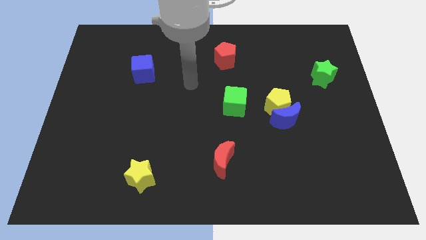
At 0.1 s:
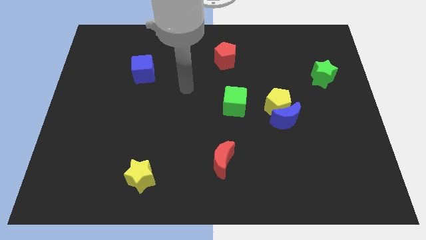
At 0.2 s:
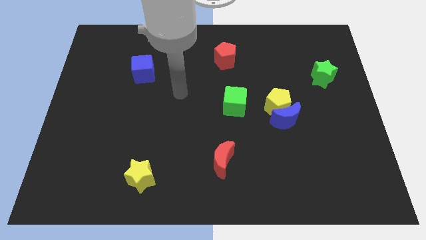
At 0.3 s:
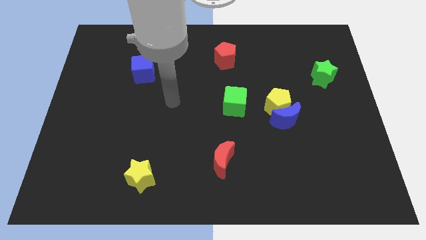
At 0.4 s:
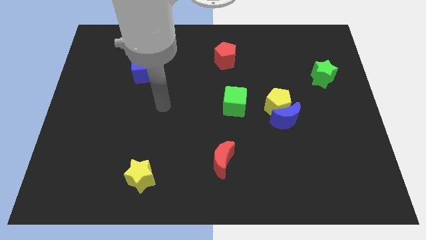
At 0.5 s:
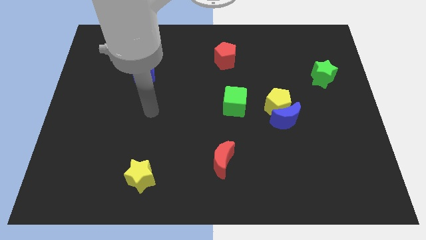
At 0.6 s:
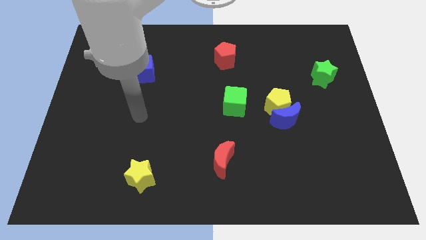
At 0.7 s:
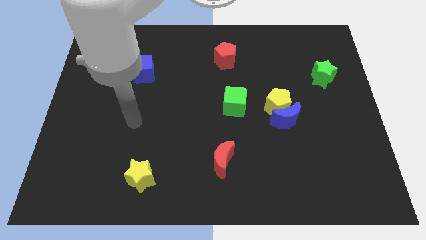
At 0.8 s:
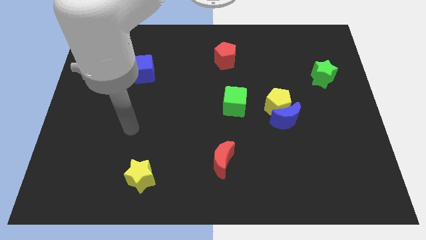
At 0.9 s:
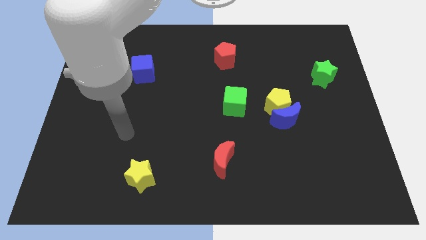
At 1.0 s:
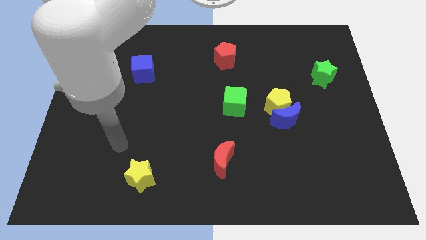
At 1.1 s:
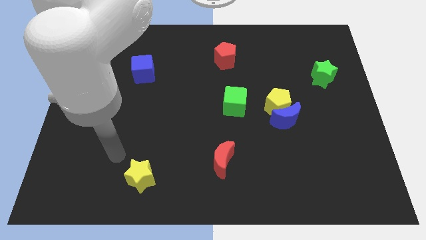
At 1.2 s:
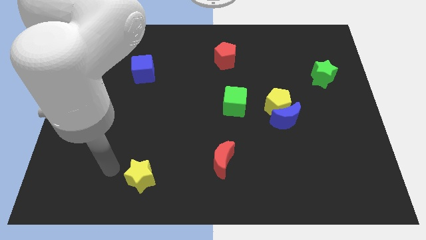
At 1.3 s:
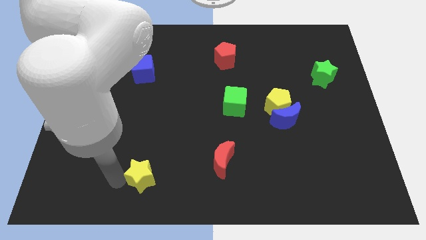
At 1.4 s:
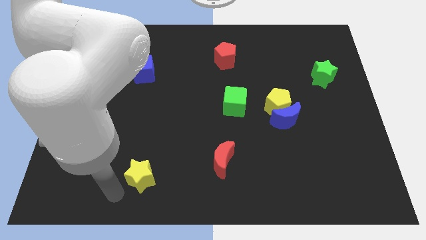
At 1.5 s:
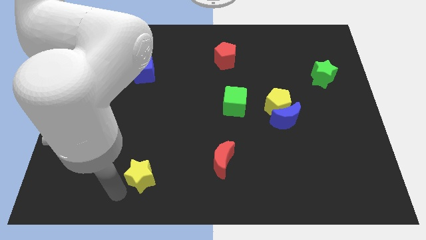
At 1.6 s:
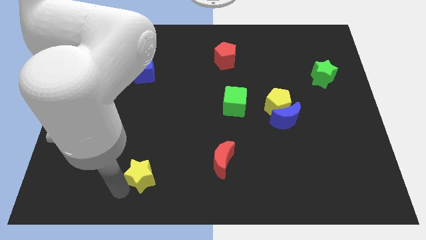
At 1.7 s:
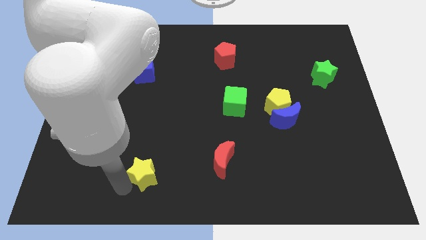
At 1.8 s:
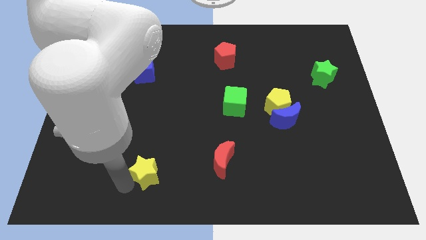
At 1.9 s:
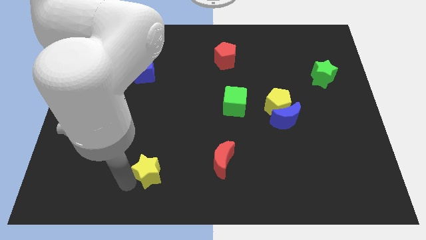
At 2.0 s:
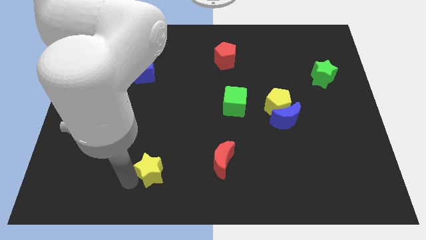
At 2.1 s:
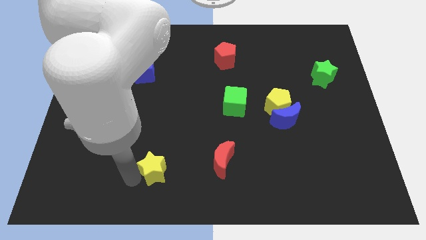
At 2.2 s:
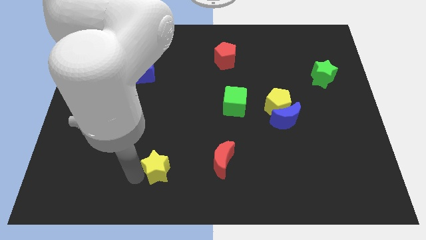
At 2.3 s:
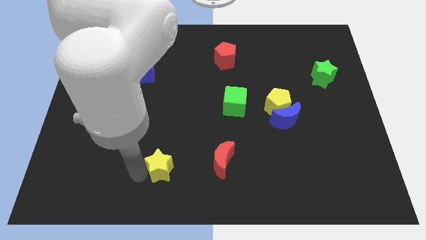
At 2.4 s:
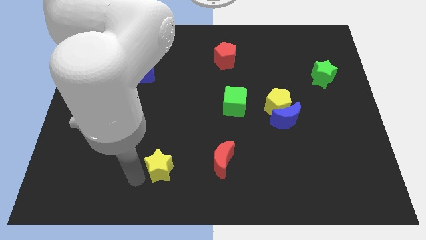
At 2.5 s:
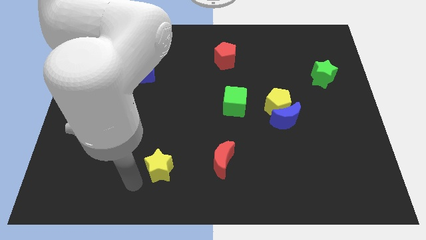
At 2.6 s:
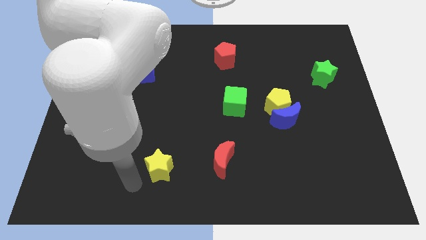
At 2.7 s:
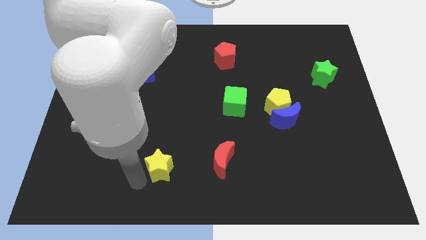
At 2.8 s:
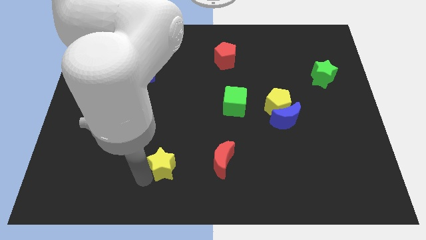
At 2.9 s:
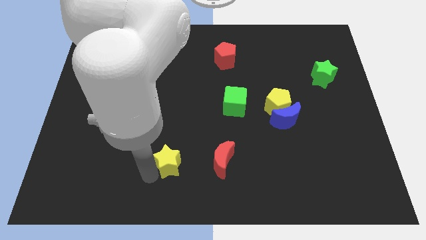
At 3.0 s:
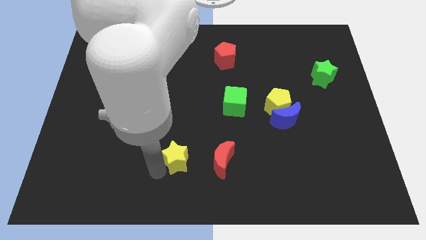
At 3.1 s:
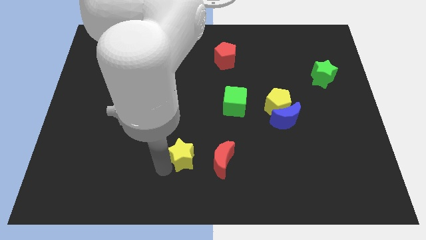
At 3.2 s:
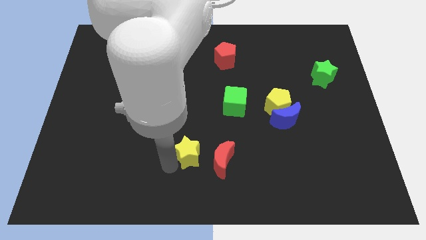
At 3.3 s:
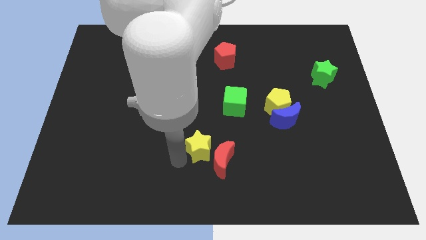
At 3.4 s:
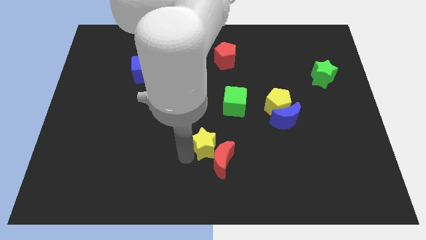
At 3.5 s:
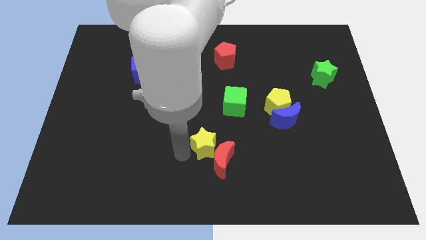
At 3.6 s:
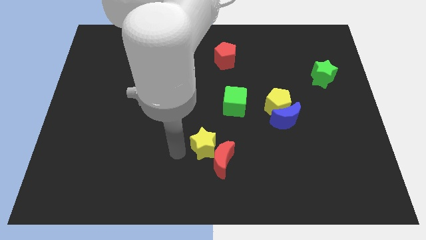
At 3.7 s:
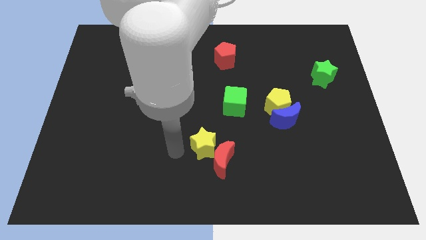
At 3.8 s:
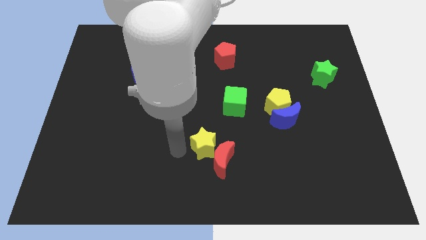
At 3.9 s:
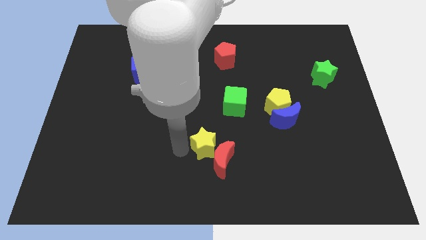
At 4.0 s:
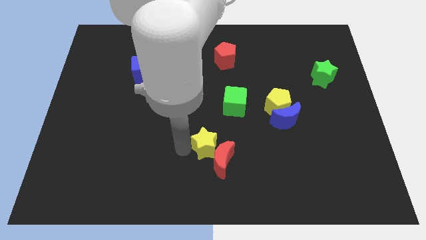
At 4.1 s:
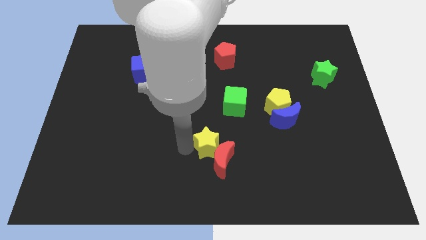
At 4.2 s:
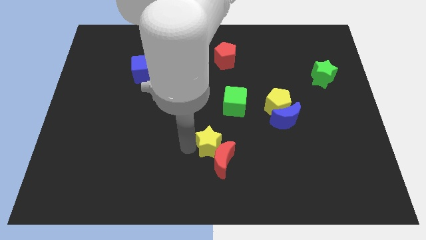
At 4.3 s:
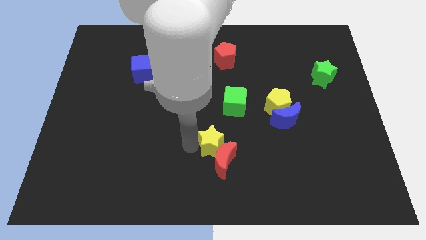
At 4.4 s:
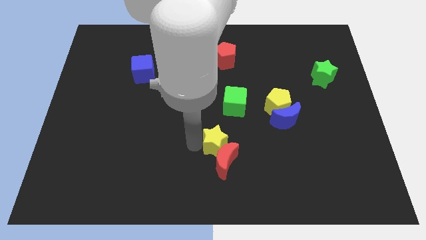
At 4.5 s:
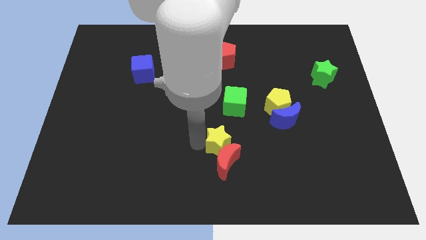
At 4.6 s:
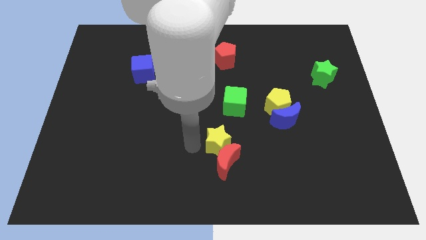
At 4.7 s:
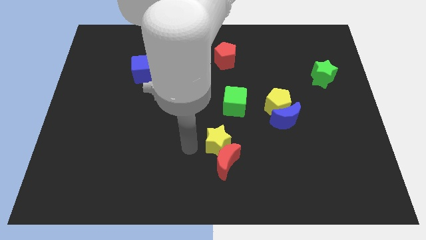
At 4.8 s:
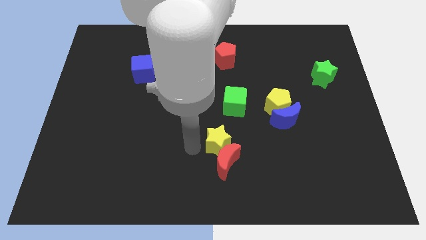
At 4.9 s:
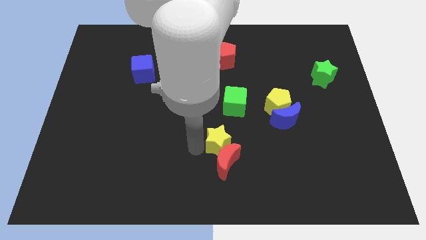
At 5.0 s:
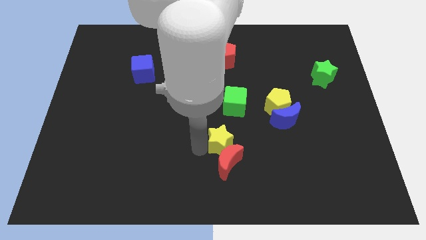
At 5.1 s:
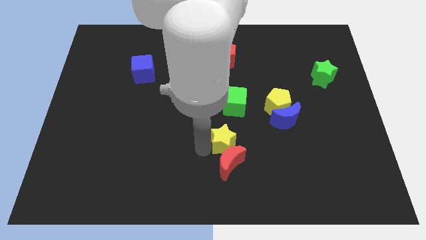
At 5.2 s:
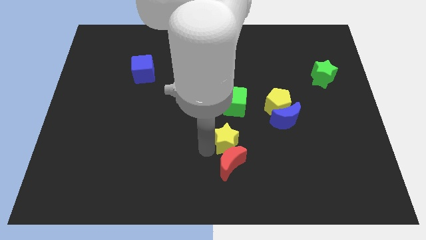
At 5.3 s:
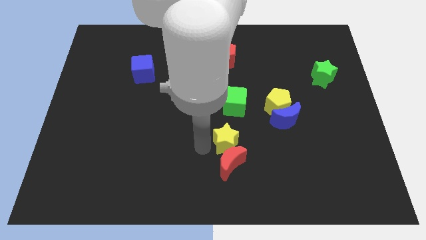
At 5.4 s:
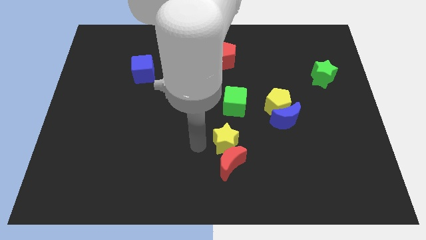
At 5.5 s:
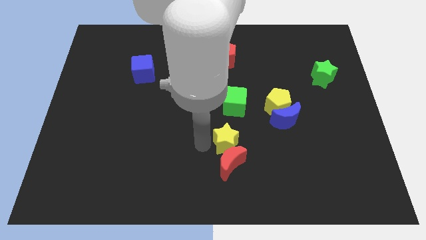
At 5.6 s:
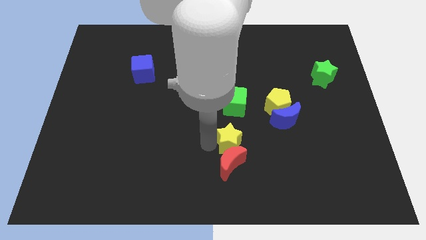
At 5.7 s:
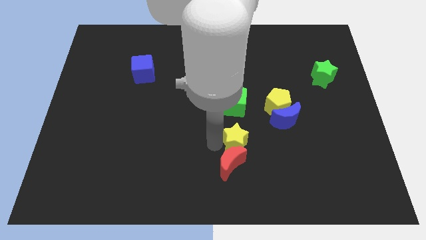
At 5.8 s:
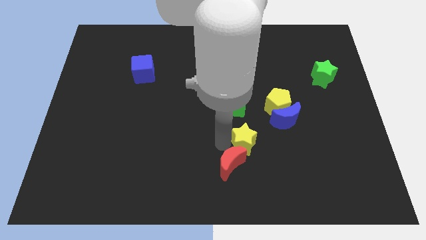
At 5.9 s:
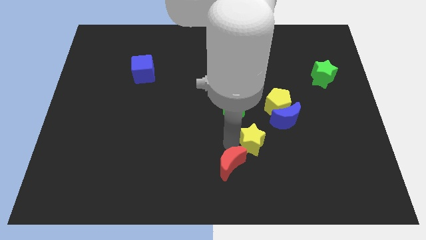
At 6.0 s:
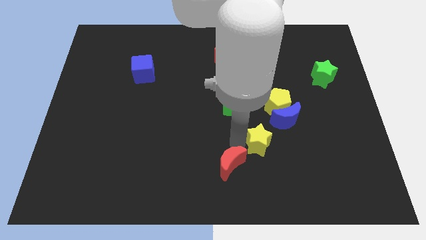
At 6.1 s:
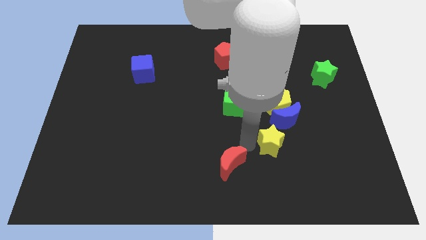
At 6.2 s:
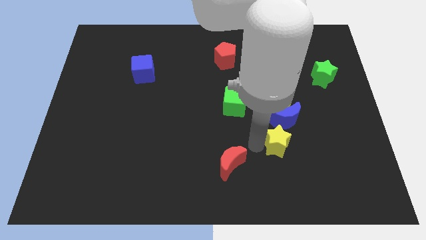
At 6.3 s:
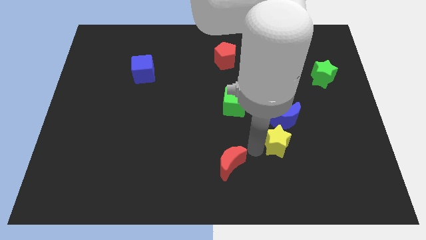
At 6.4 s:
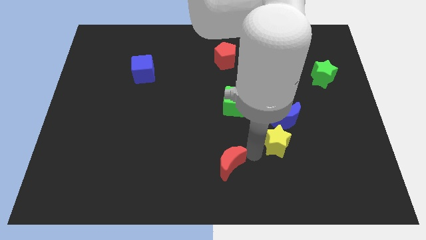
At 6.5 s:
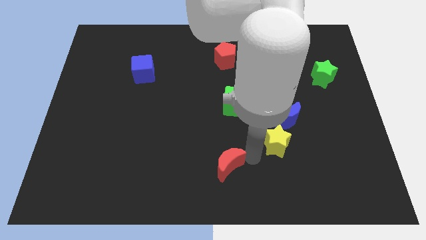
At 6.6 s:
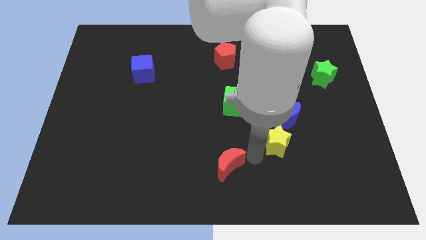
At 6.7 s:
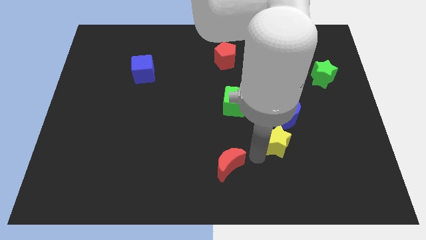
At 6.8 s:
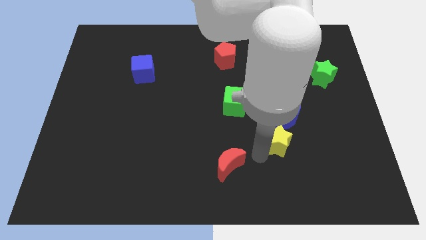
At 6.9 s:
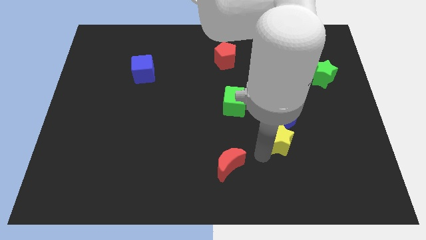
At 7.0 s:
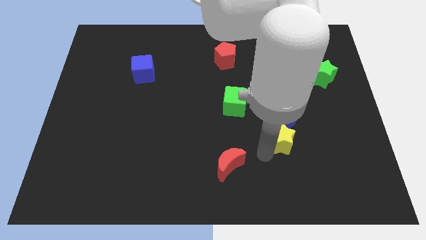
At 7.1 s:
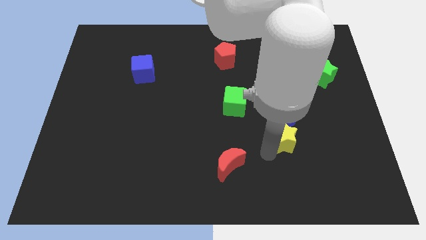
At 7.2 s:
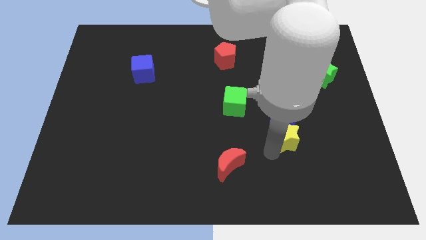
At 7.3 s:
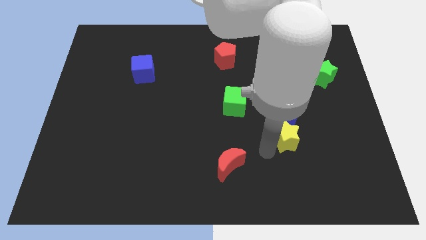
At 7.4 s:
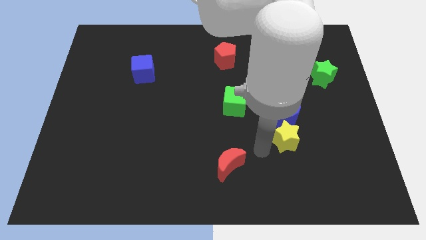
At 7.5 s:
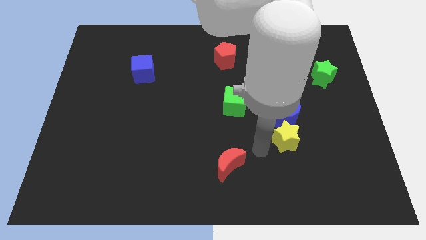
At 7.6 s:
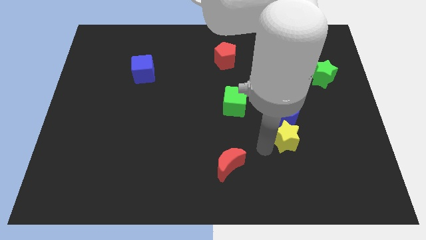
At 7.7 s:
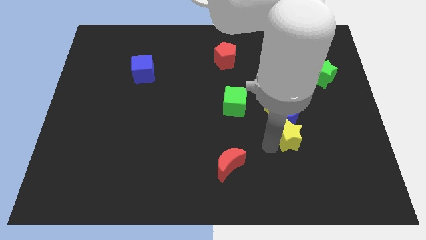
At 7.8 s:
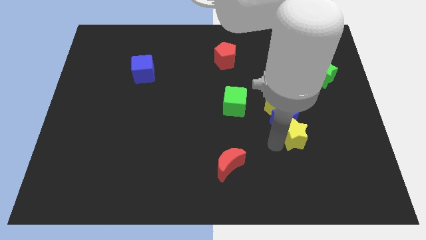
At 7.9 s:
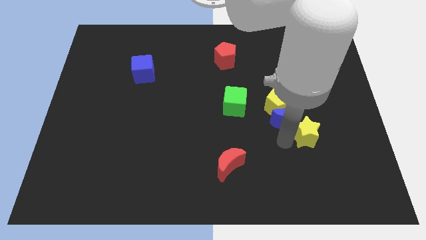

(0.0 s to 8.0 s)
put the yellow star to the right of the blue moon
